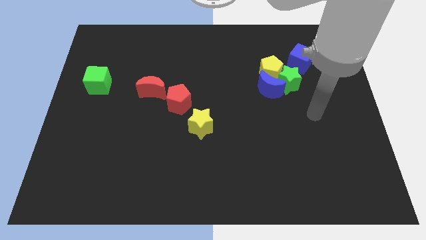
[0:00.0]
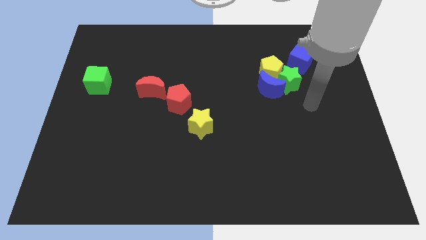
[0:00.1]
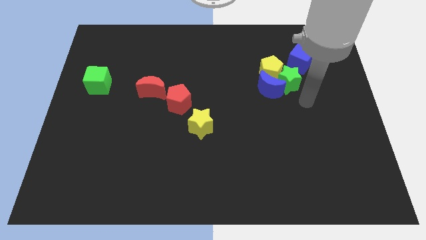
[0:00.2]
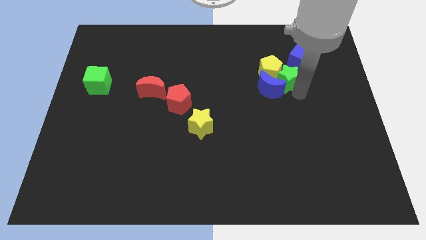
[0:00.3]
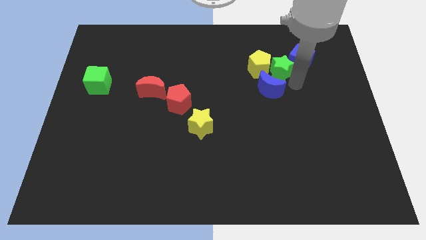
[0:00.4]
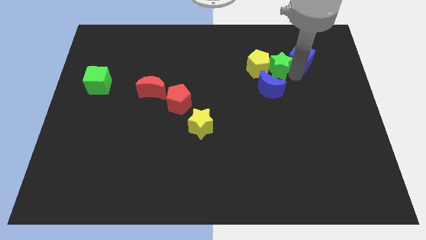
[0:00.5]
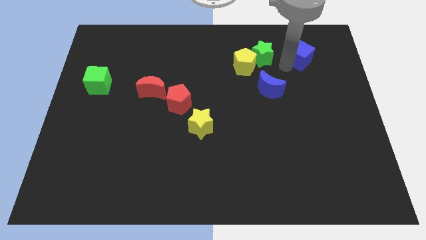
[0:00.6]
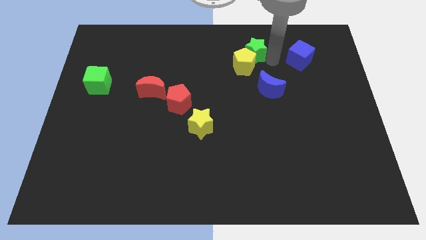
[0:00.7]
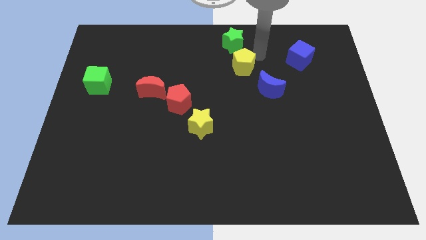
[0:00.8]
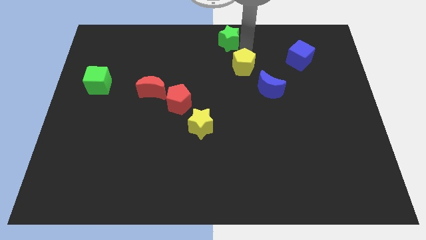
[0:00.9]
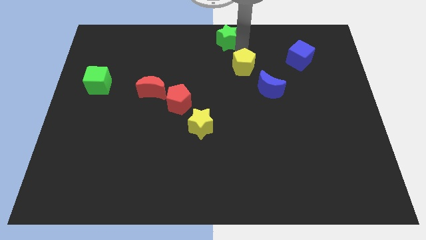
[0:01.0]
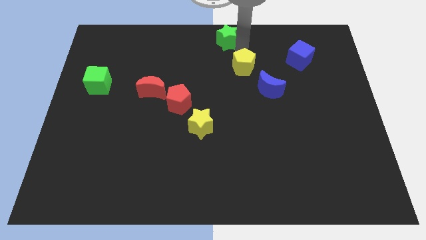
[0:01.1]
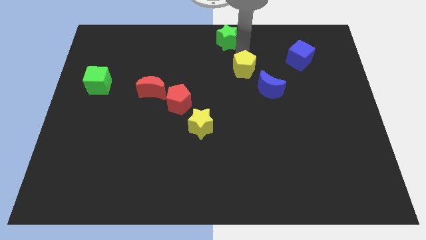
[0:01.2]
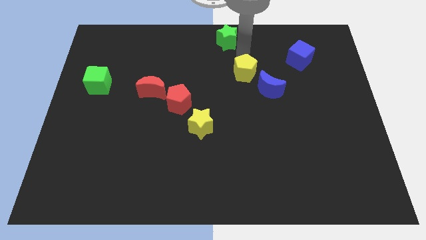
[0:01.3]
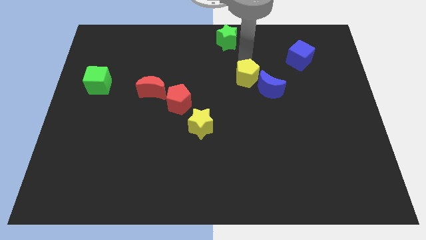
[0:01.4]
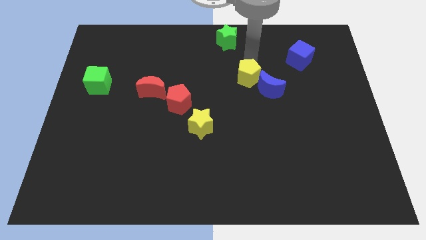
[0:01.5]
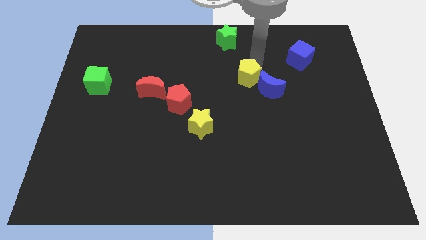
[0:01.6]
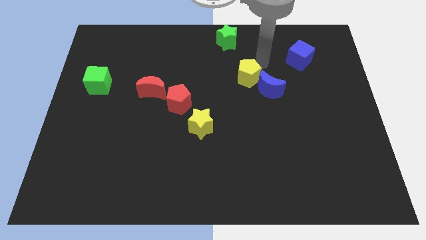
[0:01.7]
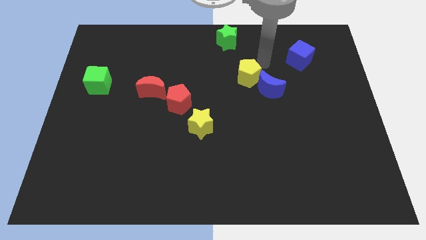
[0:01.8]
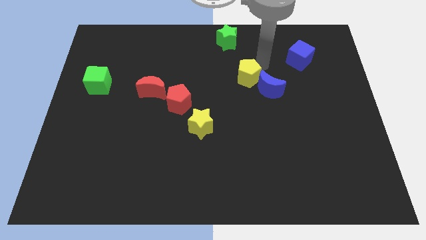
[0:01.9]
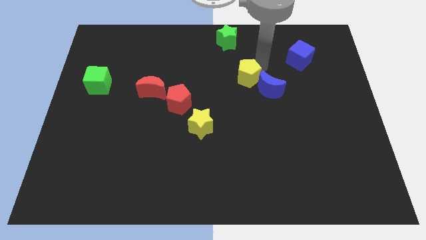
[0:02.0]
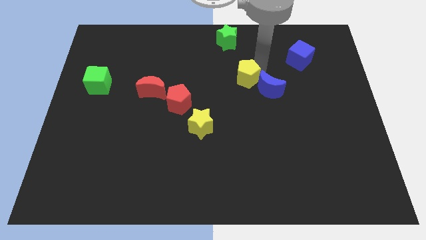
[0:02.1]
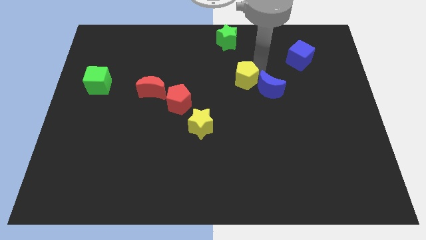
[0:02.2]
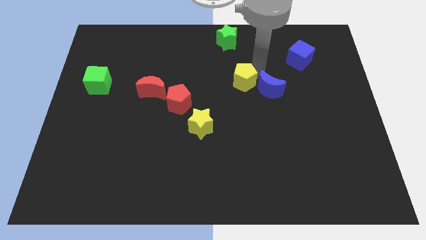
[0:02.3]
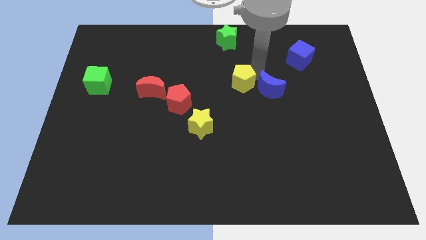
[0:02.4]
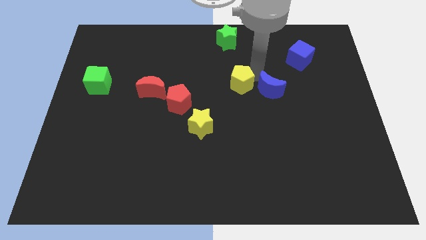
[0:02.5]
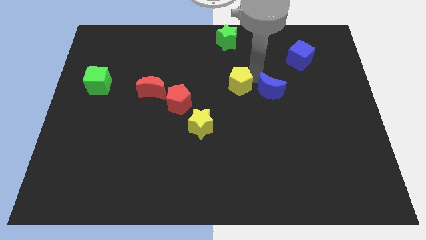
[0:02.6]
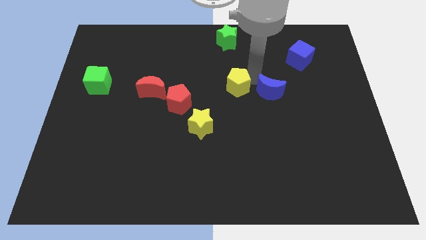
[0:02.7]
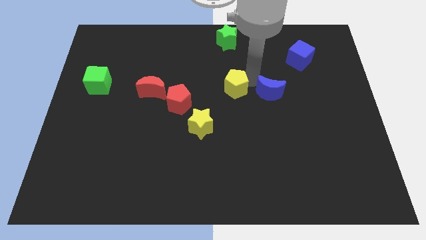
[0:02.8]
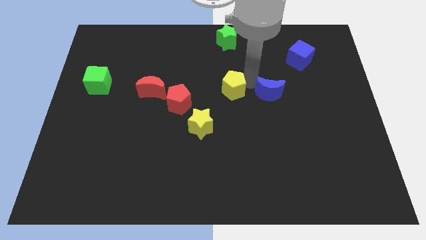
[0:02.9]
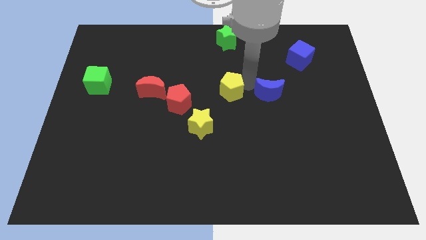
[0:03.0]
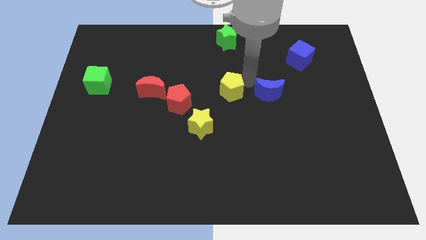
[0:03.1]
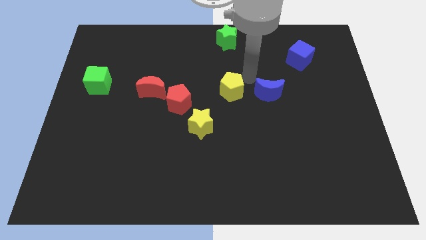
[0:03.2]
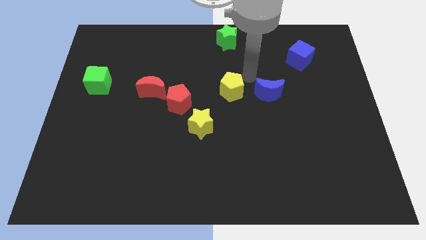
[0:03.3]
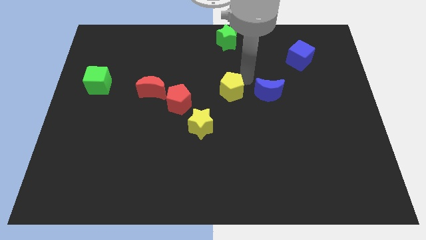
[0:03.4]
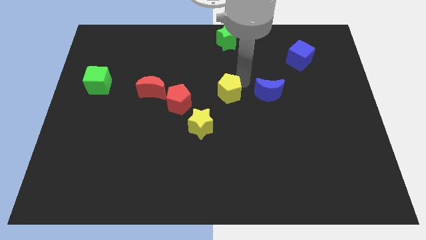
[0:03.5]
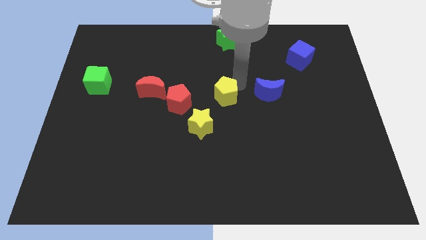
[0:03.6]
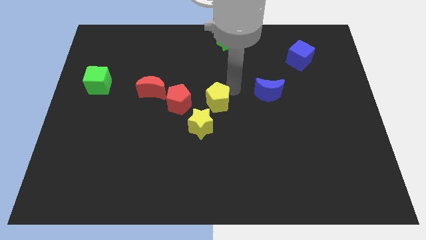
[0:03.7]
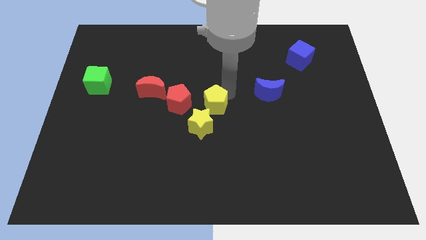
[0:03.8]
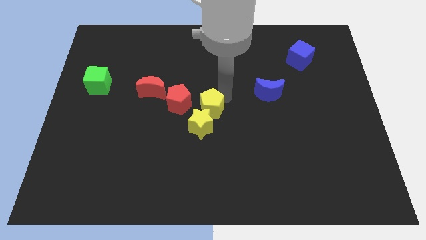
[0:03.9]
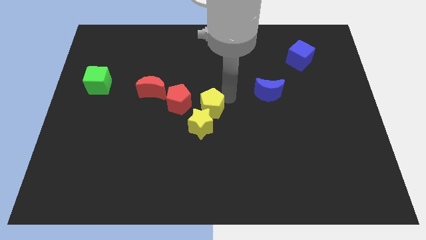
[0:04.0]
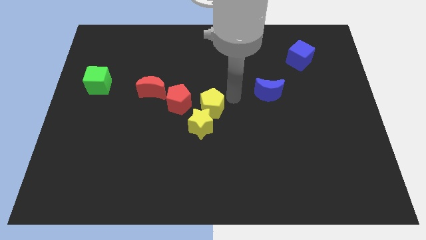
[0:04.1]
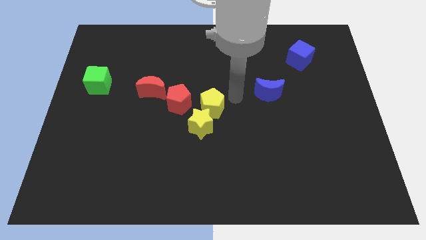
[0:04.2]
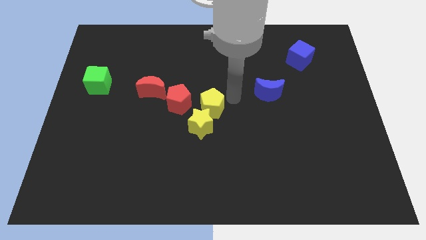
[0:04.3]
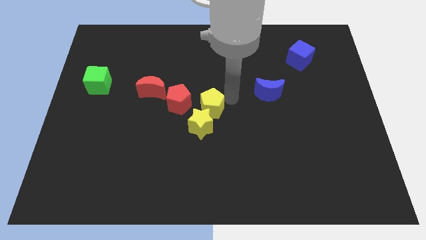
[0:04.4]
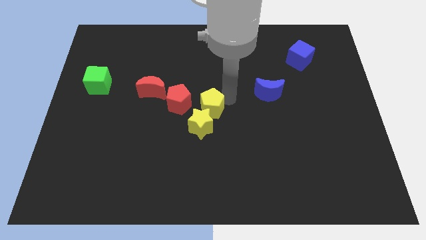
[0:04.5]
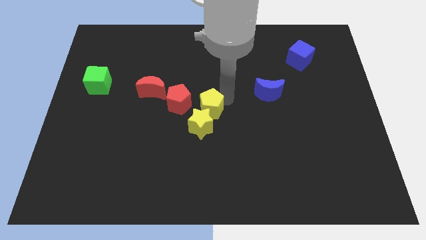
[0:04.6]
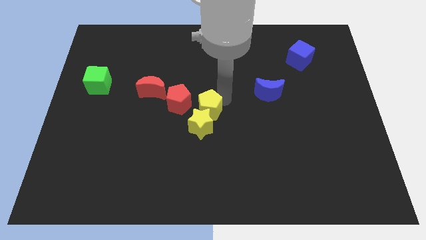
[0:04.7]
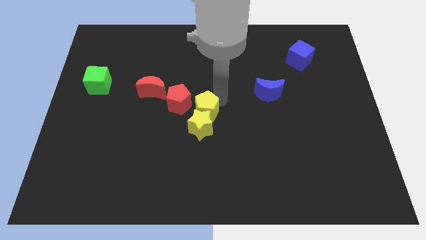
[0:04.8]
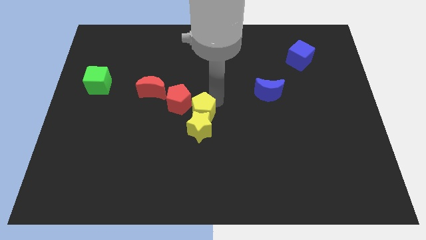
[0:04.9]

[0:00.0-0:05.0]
push the yellow pentagon downwards and to the left

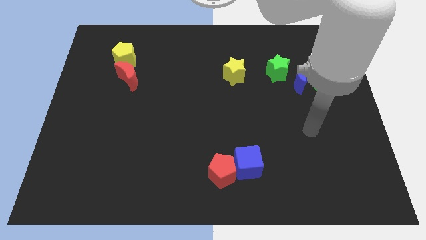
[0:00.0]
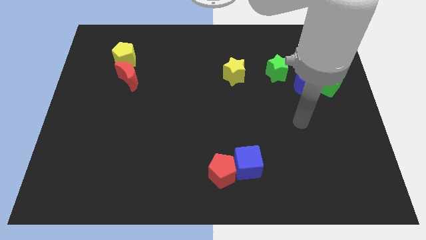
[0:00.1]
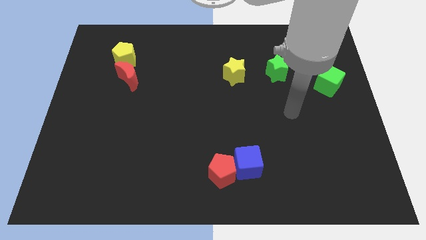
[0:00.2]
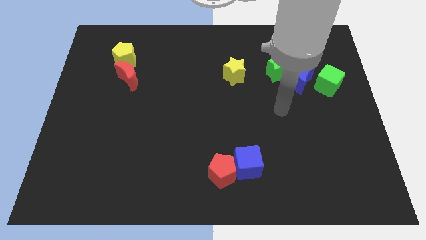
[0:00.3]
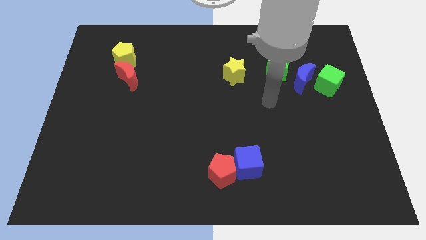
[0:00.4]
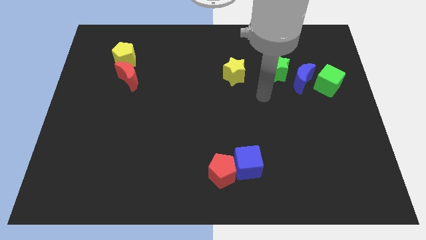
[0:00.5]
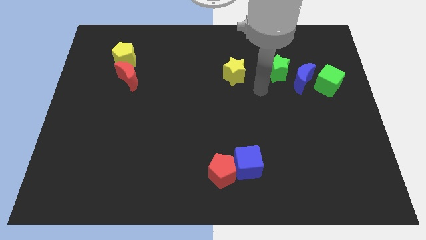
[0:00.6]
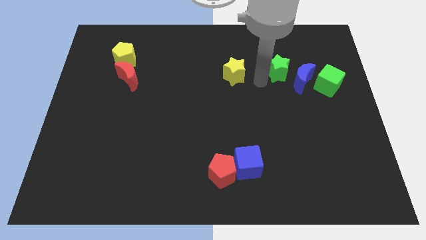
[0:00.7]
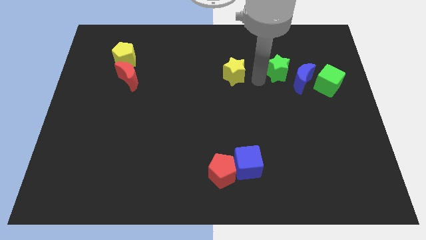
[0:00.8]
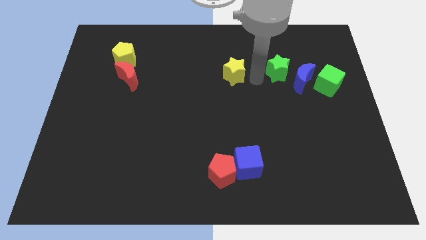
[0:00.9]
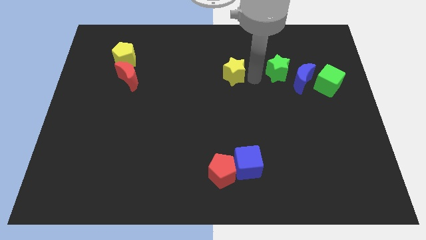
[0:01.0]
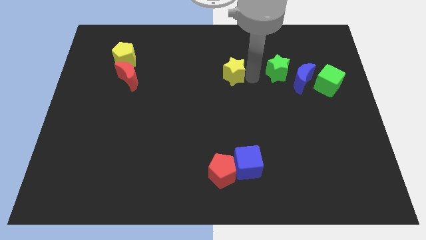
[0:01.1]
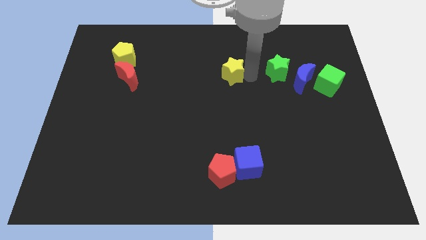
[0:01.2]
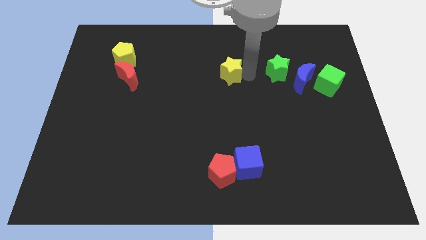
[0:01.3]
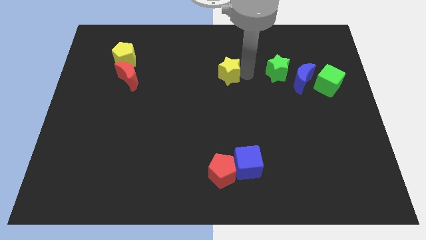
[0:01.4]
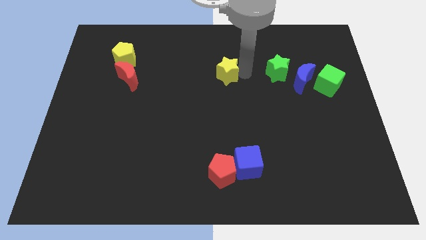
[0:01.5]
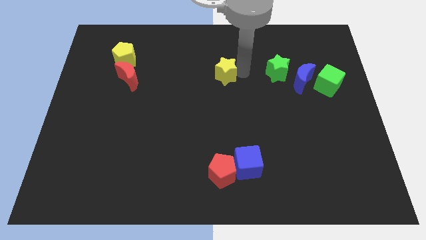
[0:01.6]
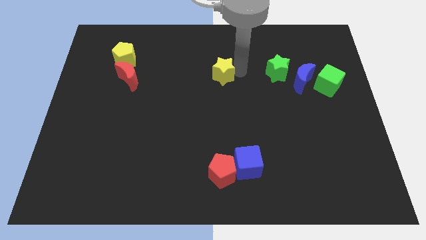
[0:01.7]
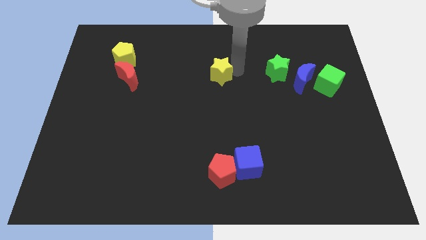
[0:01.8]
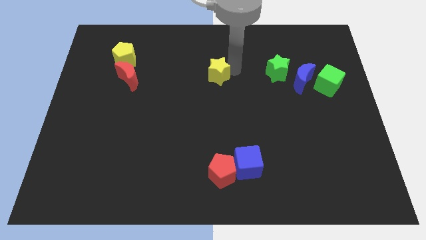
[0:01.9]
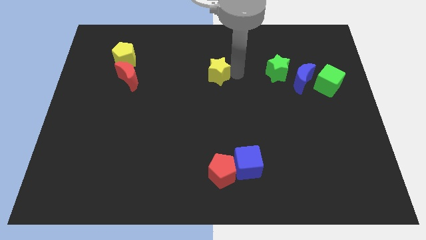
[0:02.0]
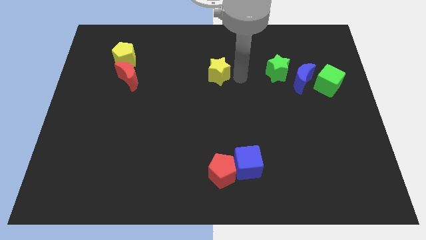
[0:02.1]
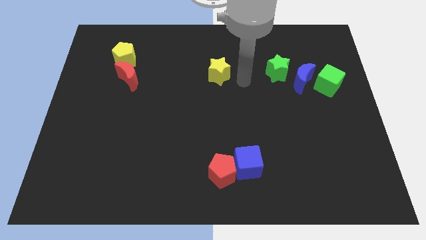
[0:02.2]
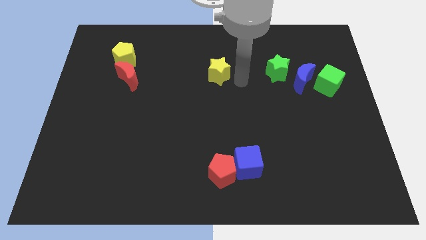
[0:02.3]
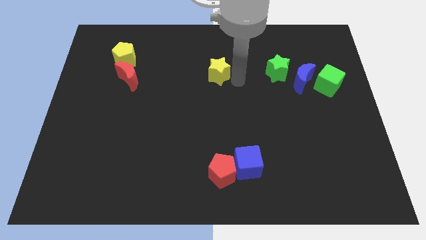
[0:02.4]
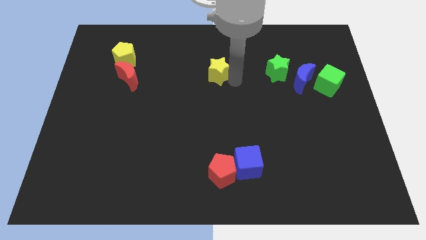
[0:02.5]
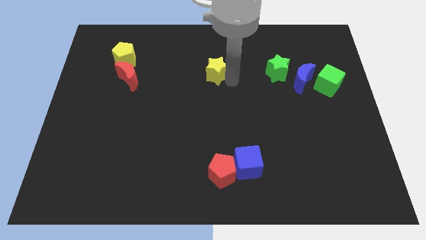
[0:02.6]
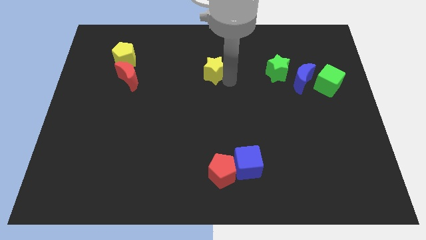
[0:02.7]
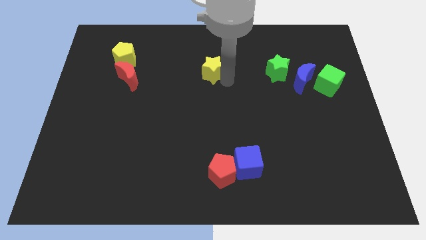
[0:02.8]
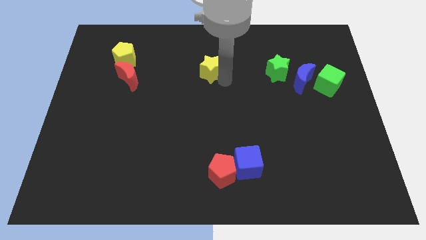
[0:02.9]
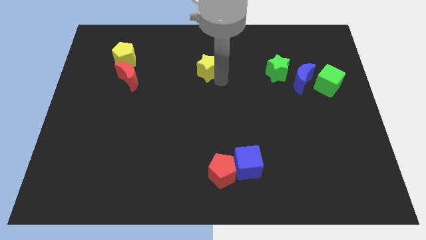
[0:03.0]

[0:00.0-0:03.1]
push the yellow star to the left a little

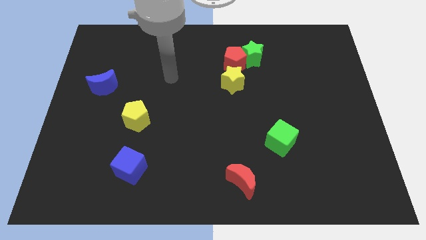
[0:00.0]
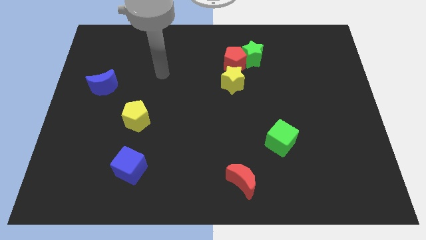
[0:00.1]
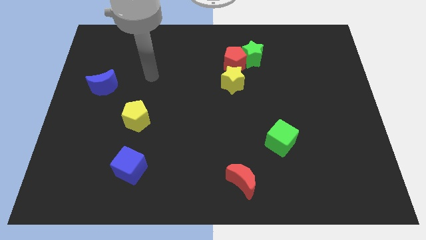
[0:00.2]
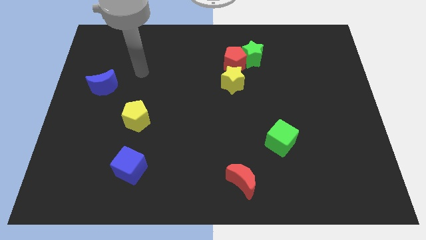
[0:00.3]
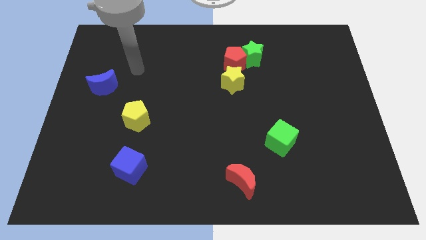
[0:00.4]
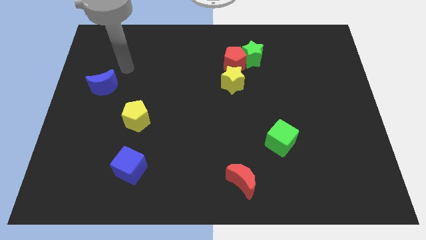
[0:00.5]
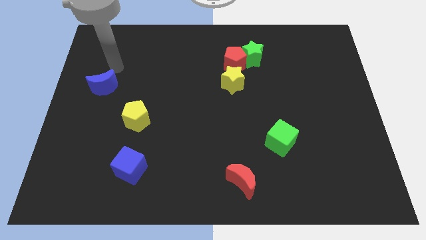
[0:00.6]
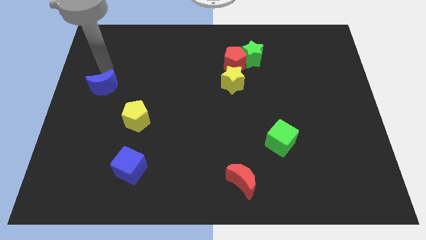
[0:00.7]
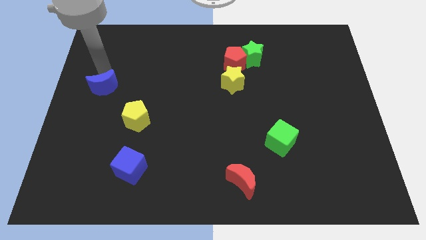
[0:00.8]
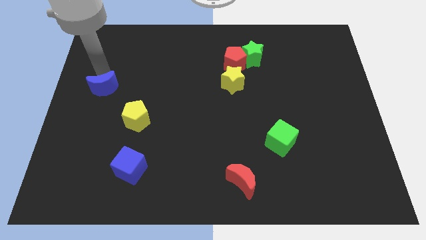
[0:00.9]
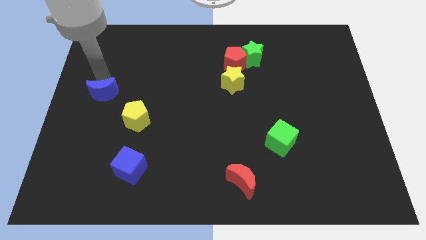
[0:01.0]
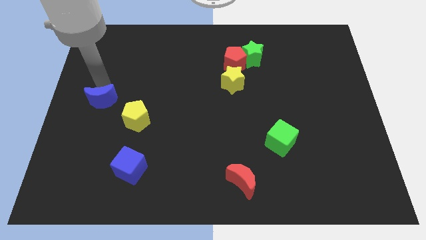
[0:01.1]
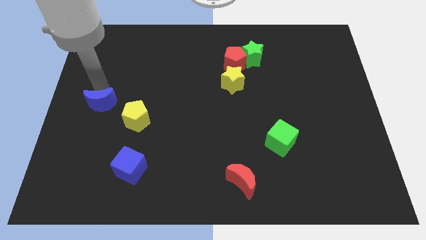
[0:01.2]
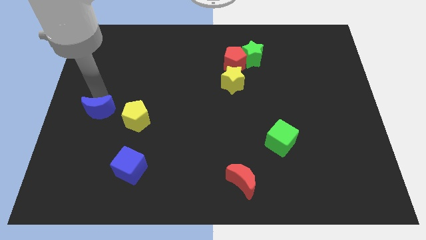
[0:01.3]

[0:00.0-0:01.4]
push the blue moon a bit downwards
